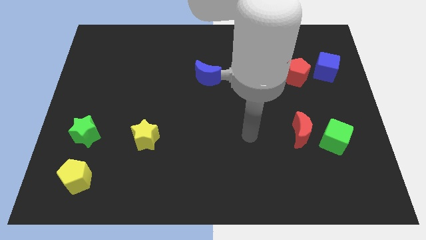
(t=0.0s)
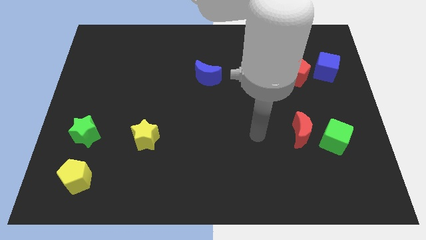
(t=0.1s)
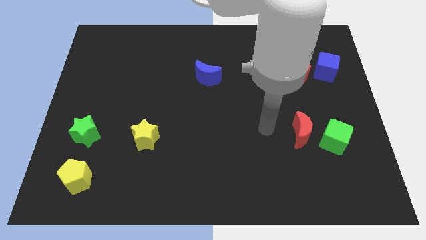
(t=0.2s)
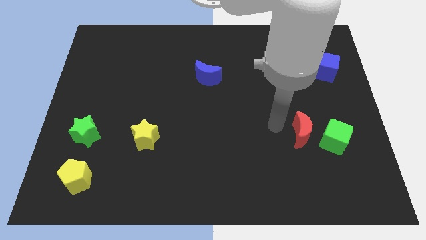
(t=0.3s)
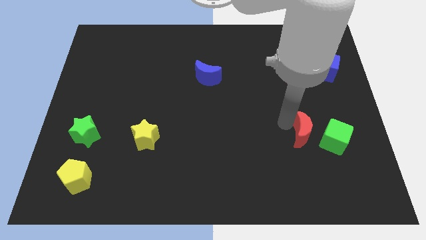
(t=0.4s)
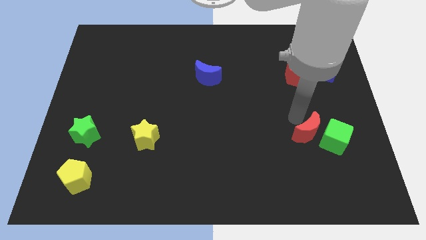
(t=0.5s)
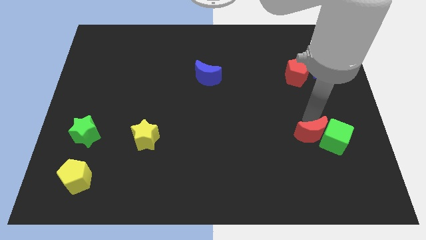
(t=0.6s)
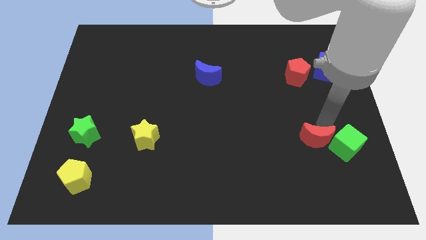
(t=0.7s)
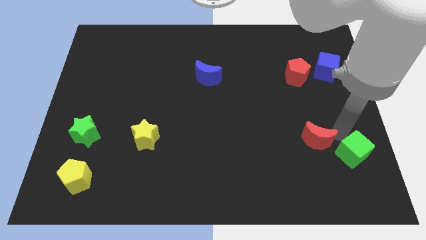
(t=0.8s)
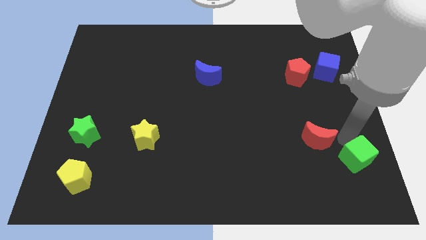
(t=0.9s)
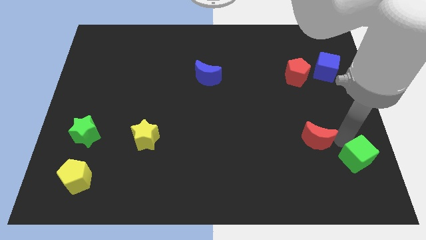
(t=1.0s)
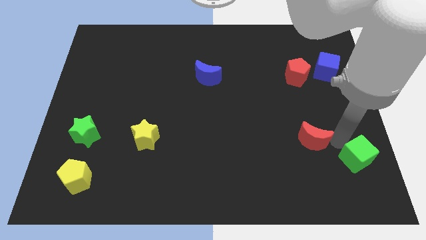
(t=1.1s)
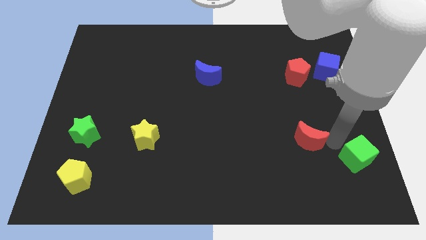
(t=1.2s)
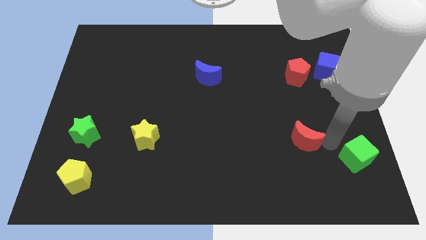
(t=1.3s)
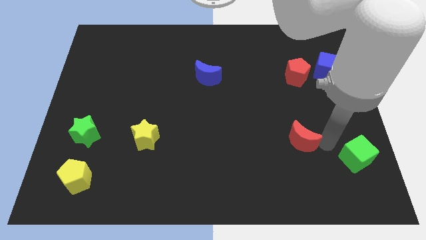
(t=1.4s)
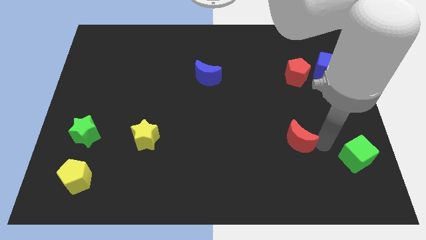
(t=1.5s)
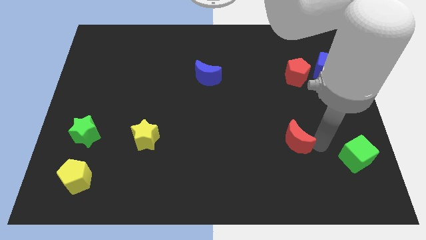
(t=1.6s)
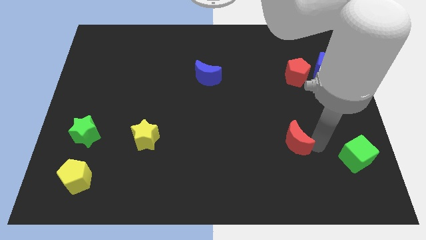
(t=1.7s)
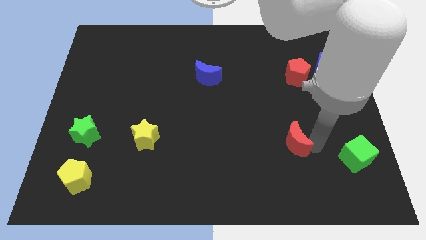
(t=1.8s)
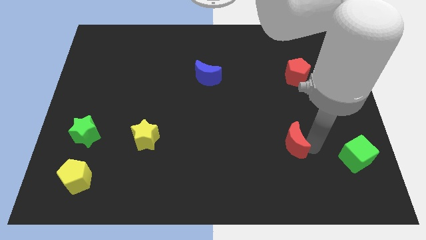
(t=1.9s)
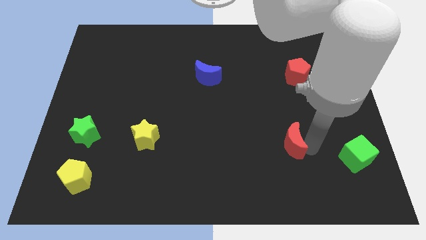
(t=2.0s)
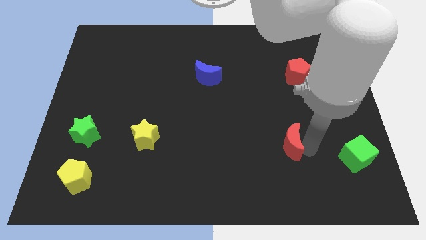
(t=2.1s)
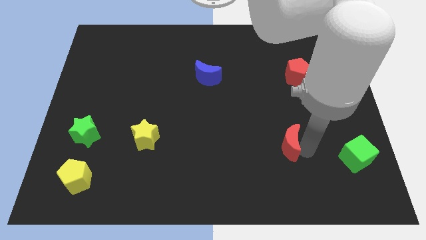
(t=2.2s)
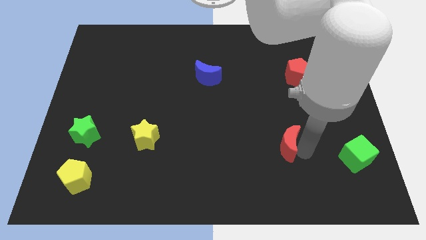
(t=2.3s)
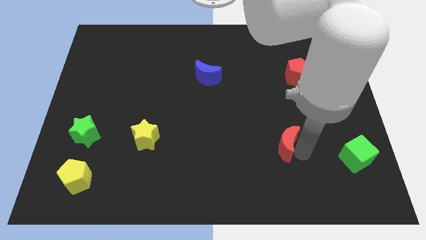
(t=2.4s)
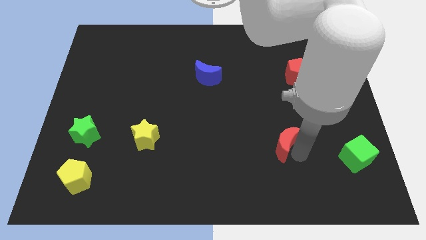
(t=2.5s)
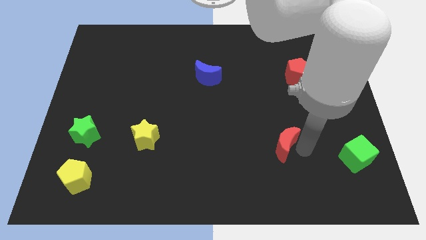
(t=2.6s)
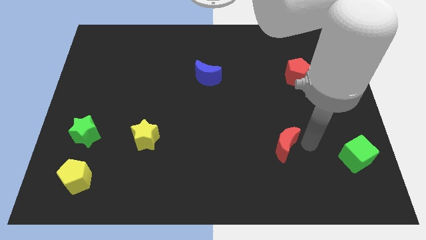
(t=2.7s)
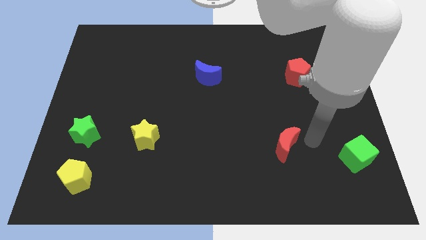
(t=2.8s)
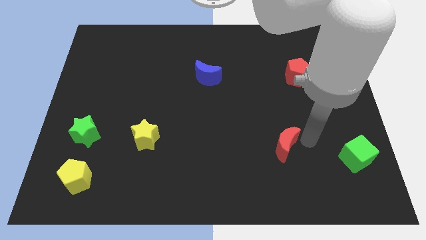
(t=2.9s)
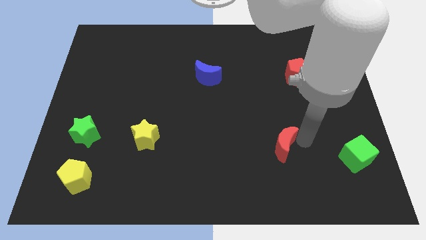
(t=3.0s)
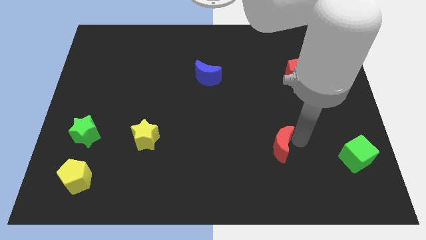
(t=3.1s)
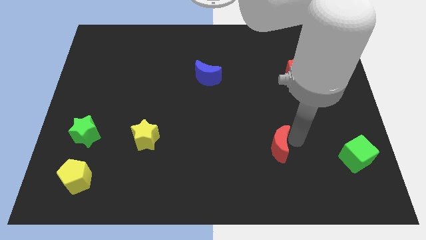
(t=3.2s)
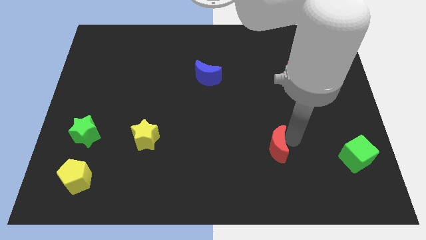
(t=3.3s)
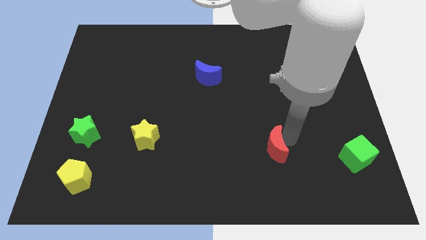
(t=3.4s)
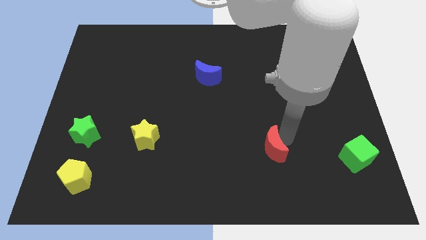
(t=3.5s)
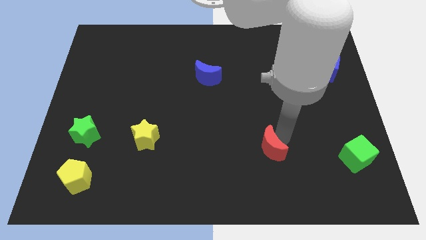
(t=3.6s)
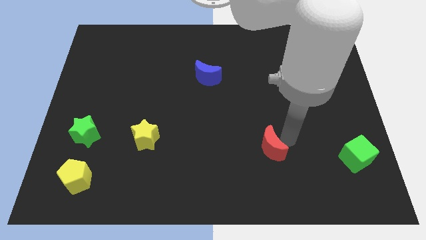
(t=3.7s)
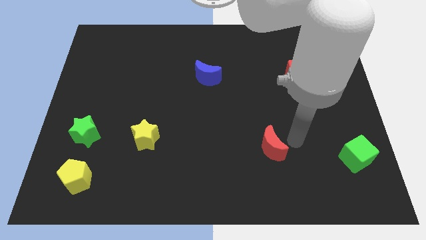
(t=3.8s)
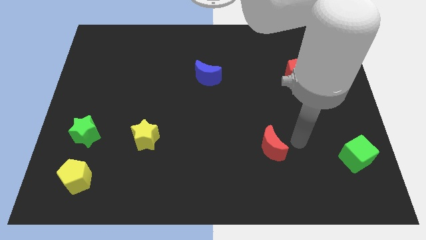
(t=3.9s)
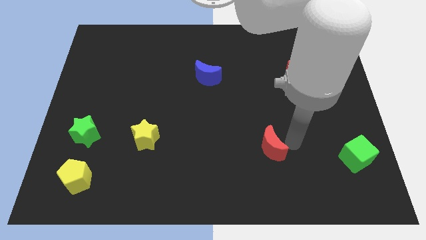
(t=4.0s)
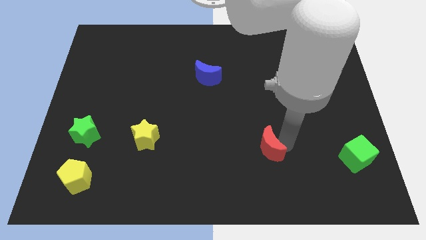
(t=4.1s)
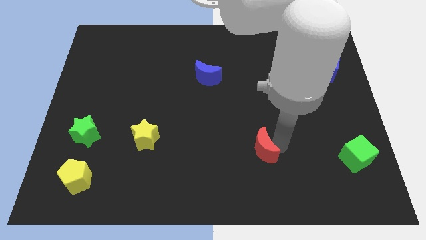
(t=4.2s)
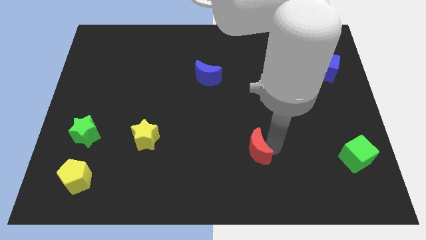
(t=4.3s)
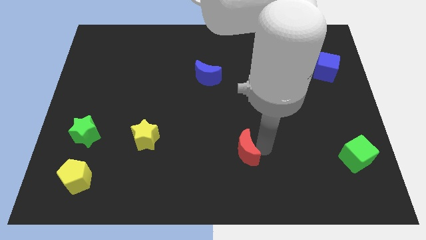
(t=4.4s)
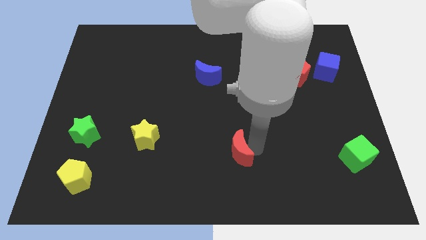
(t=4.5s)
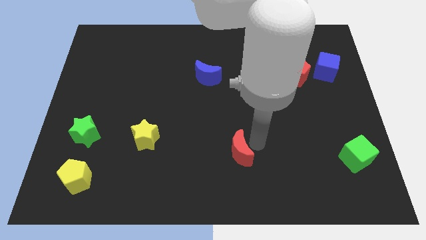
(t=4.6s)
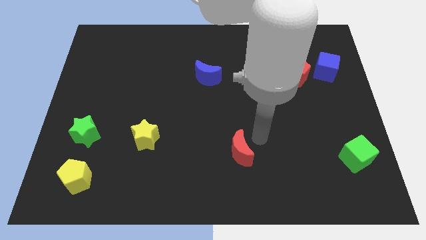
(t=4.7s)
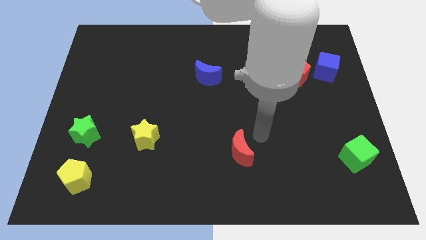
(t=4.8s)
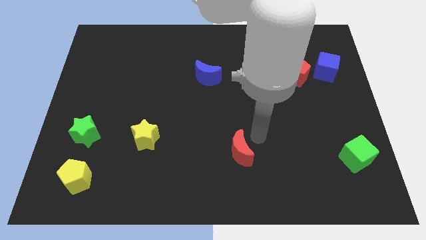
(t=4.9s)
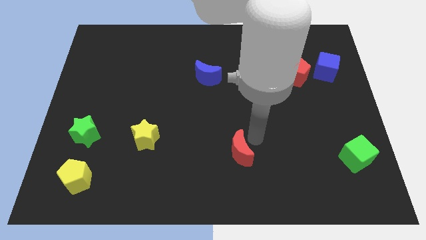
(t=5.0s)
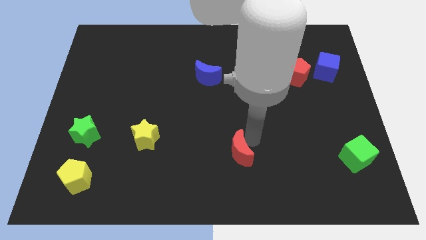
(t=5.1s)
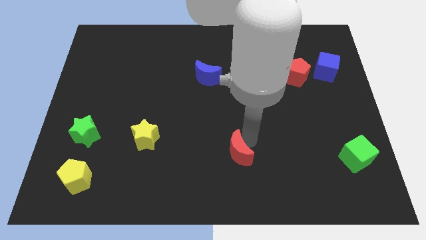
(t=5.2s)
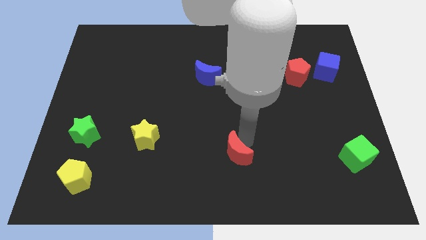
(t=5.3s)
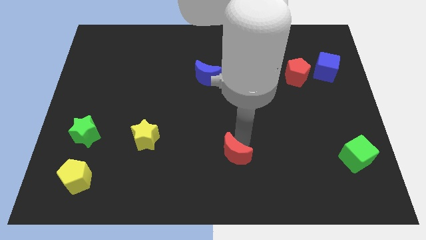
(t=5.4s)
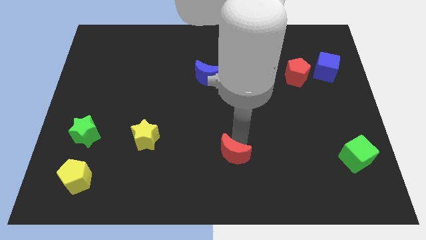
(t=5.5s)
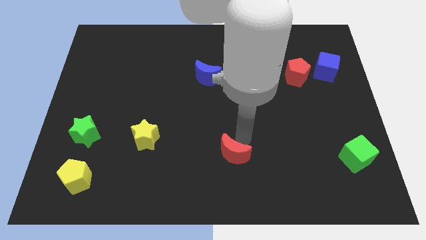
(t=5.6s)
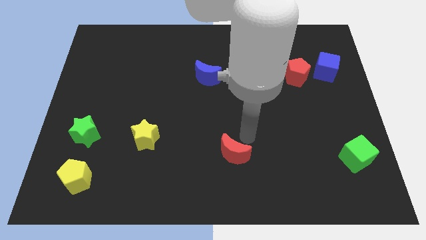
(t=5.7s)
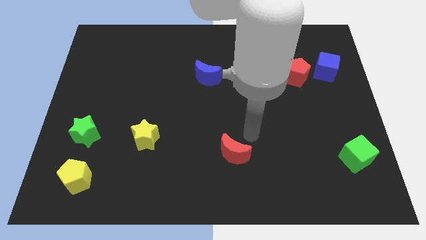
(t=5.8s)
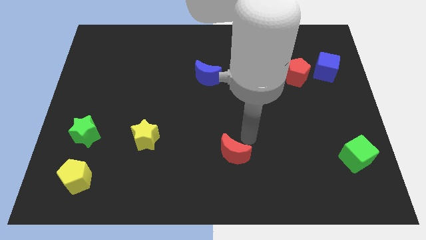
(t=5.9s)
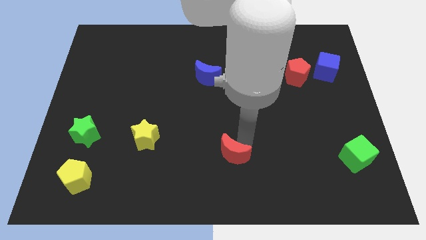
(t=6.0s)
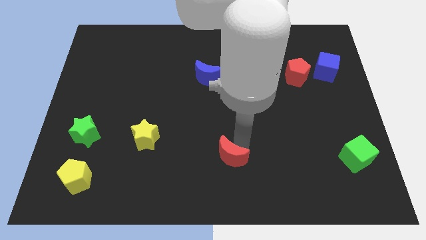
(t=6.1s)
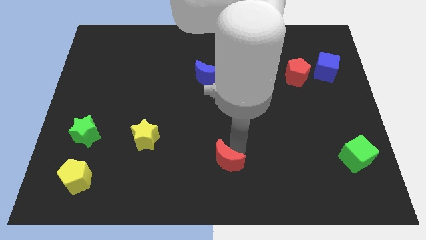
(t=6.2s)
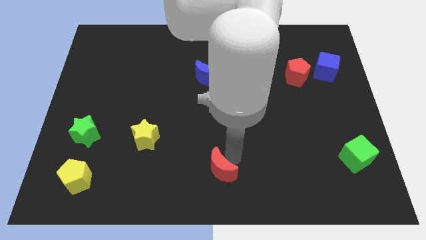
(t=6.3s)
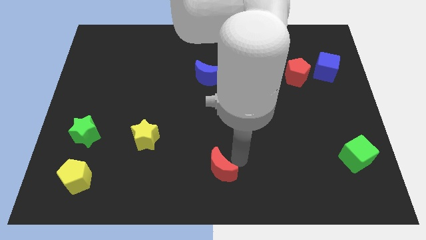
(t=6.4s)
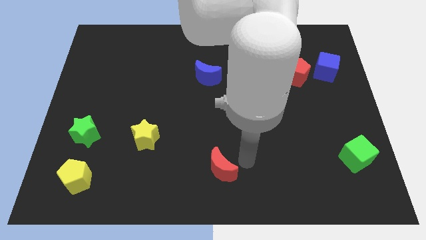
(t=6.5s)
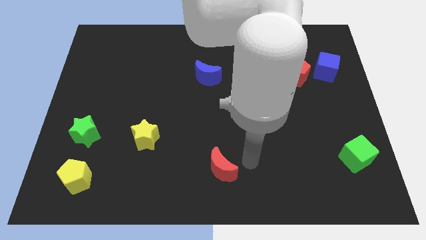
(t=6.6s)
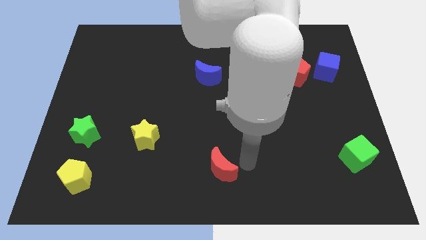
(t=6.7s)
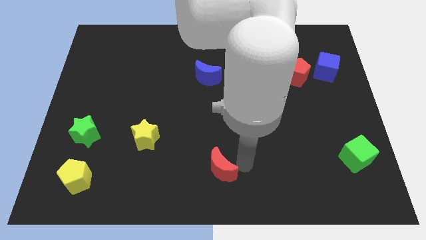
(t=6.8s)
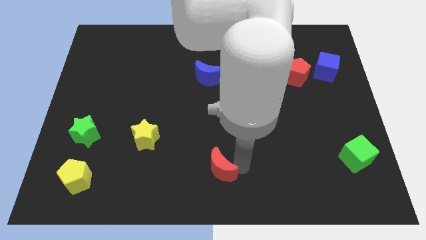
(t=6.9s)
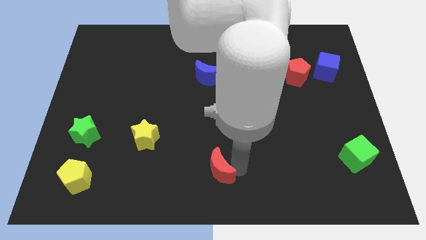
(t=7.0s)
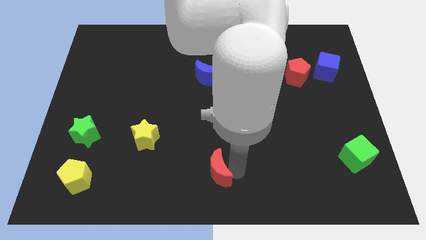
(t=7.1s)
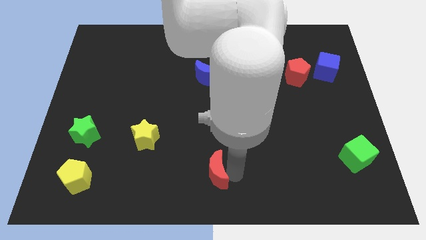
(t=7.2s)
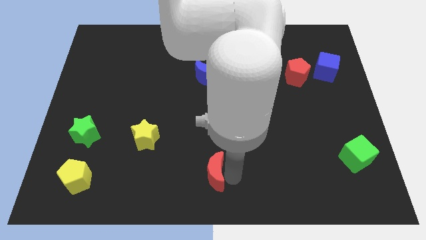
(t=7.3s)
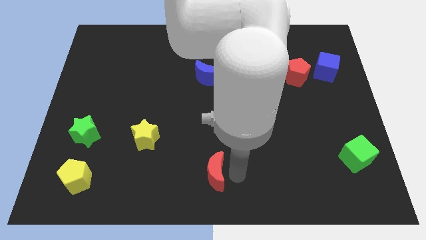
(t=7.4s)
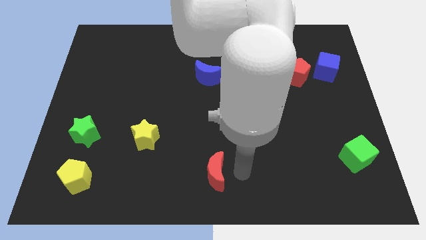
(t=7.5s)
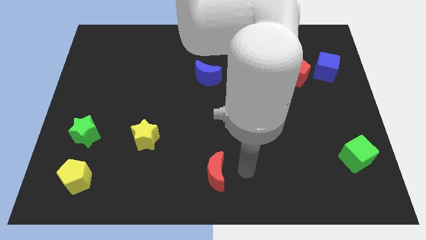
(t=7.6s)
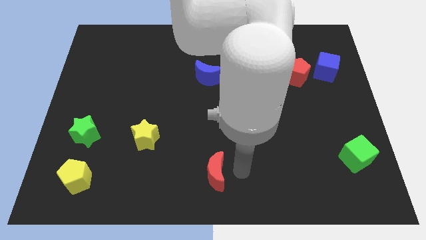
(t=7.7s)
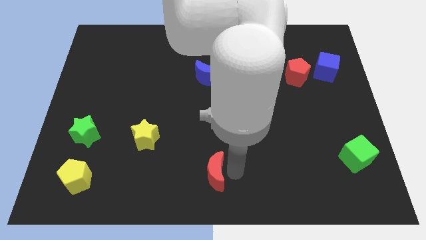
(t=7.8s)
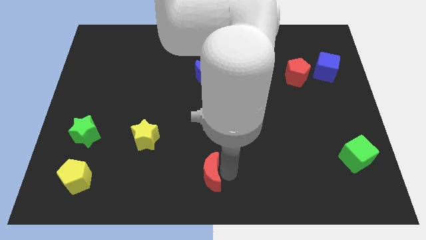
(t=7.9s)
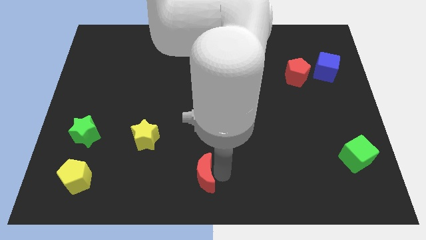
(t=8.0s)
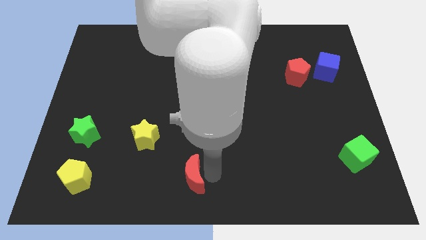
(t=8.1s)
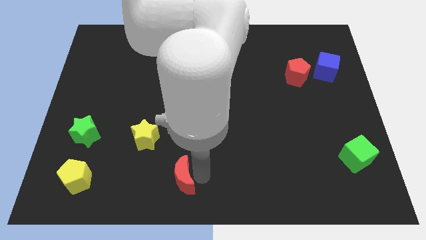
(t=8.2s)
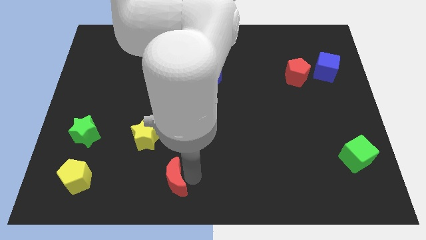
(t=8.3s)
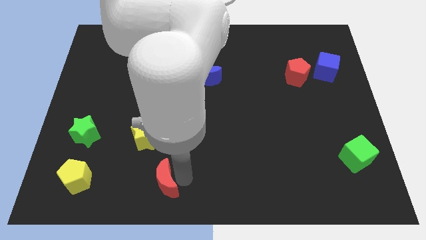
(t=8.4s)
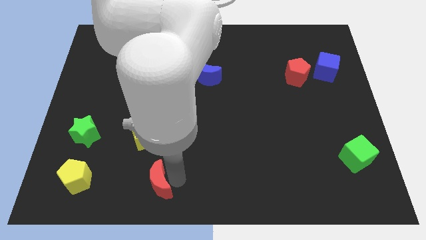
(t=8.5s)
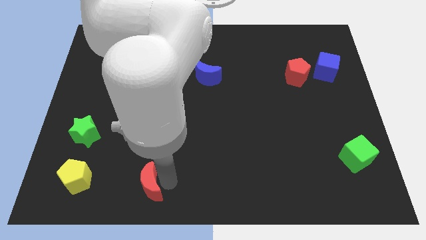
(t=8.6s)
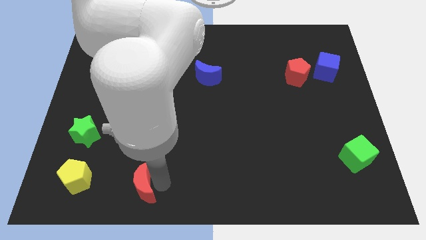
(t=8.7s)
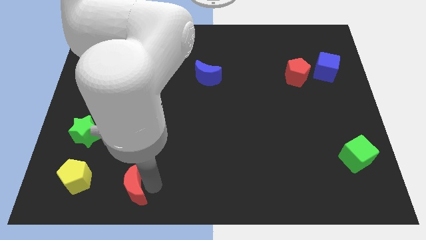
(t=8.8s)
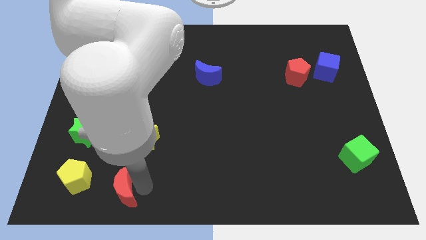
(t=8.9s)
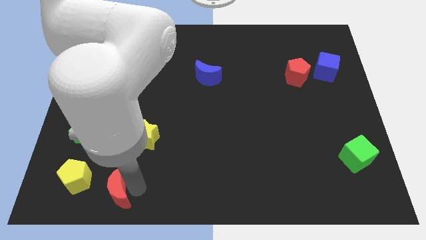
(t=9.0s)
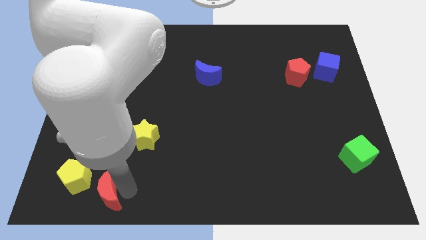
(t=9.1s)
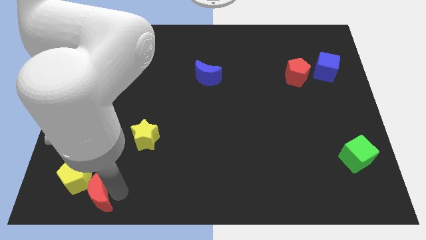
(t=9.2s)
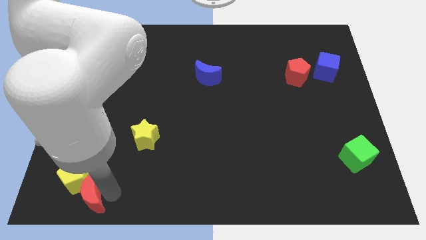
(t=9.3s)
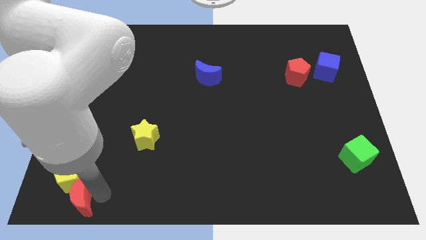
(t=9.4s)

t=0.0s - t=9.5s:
move the red moon to the bottom left of the board
